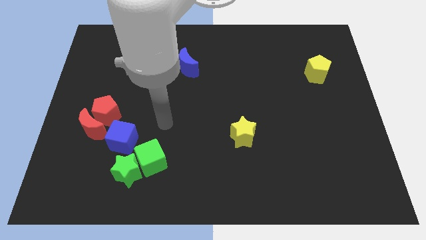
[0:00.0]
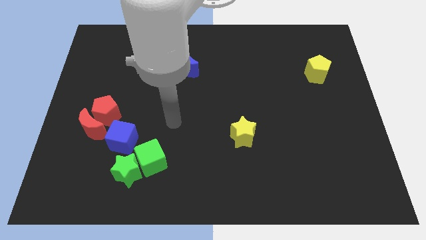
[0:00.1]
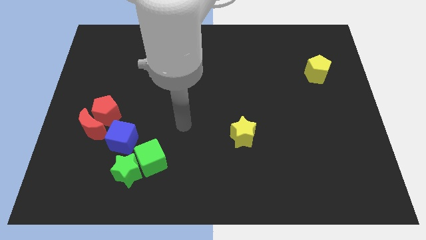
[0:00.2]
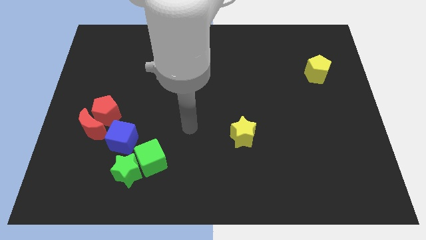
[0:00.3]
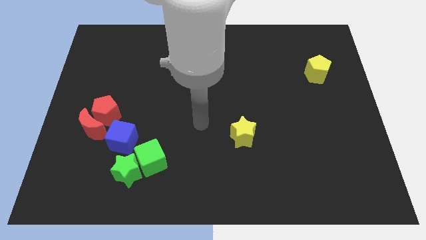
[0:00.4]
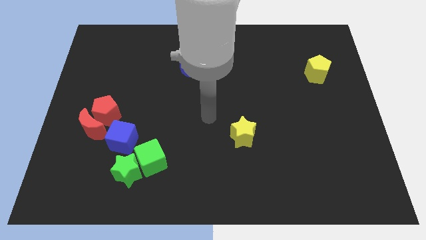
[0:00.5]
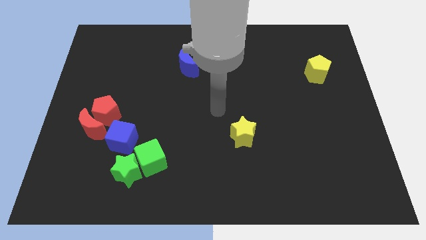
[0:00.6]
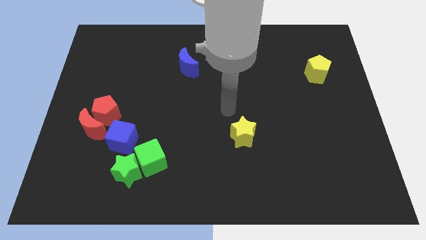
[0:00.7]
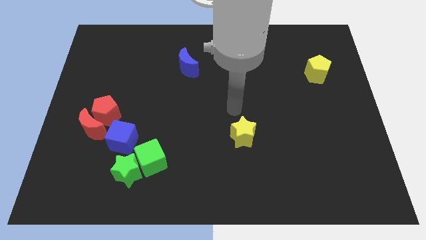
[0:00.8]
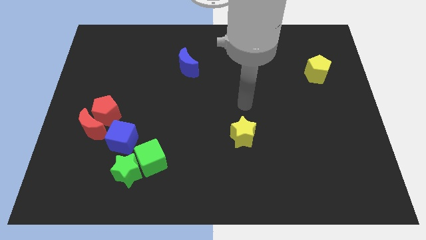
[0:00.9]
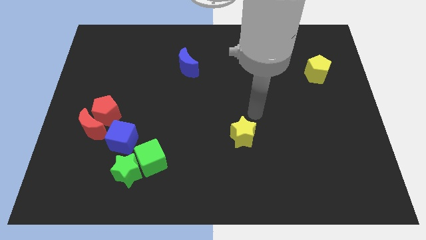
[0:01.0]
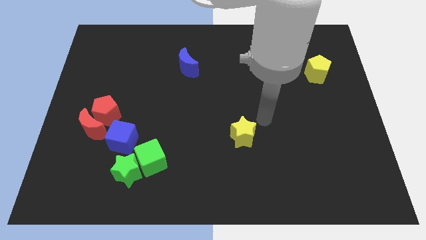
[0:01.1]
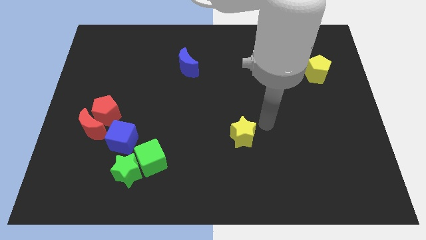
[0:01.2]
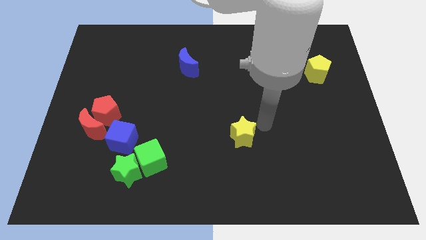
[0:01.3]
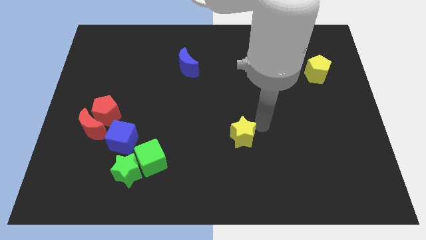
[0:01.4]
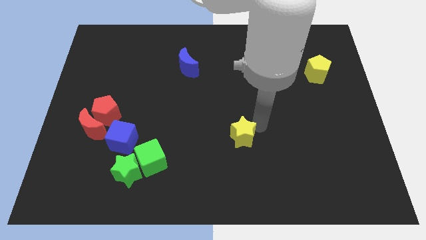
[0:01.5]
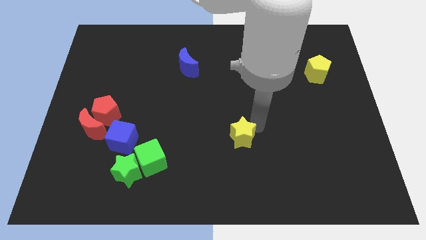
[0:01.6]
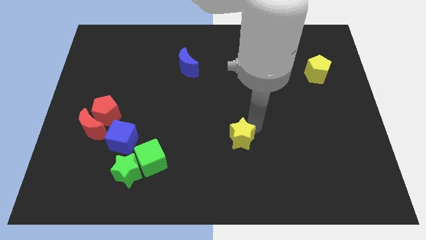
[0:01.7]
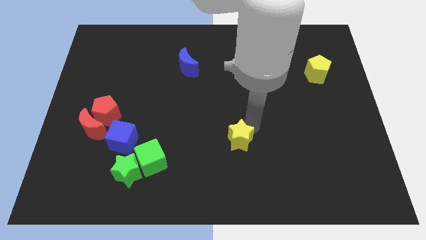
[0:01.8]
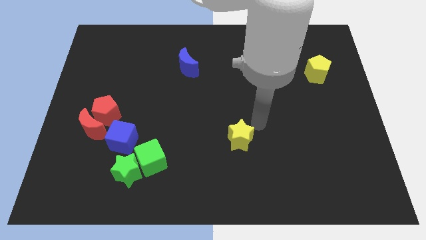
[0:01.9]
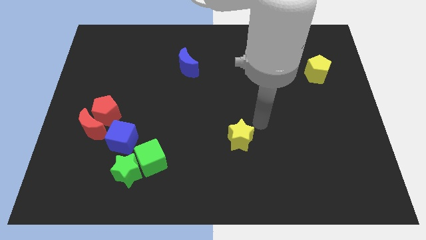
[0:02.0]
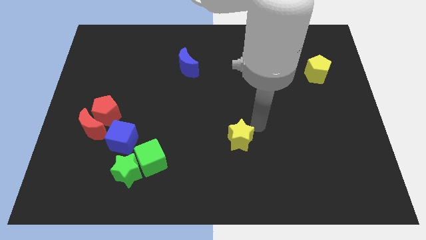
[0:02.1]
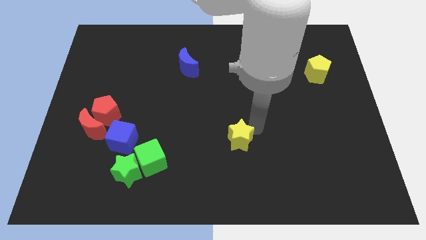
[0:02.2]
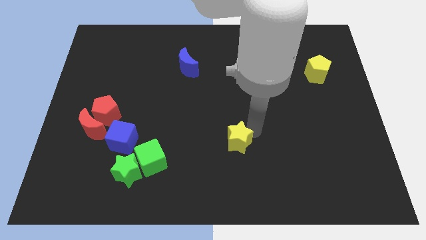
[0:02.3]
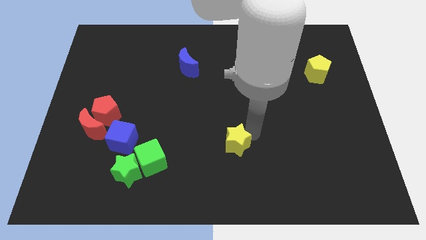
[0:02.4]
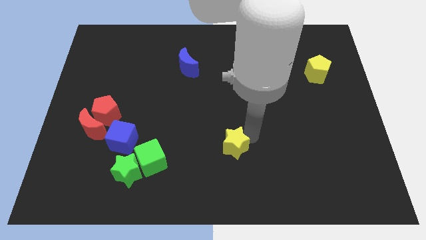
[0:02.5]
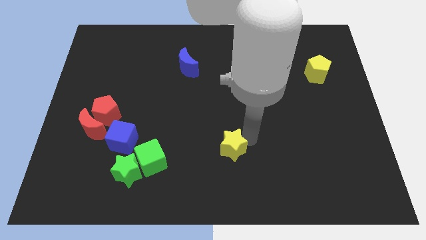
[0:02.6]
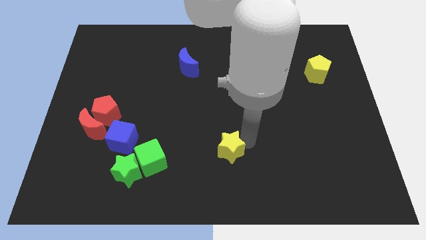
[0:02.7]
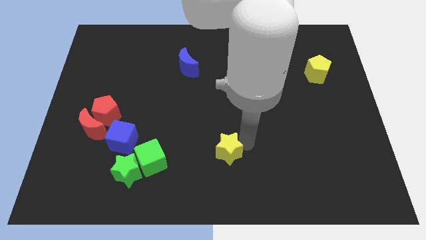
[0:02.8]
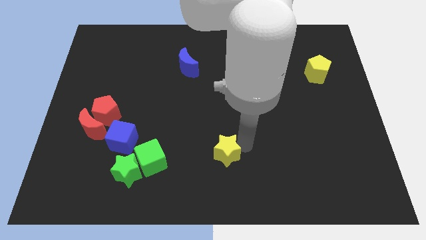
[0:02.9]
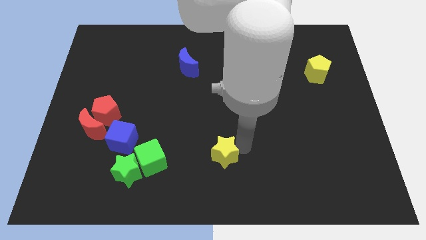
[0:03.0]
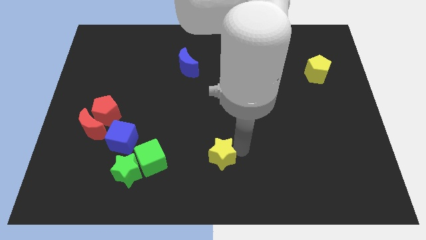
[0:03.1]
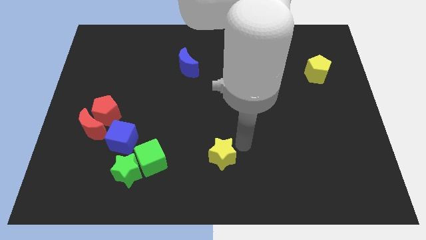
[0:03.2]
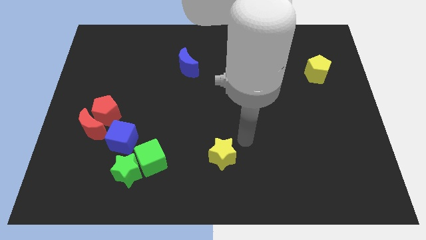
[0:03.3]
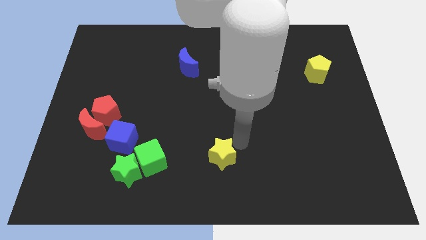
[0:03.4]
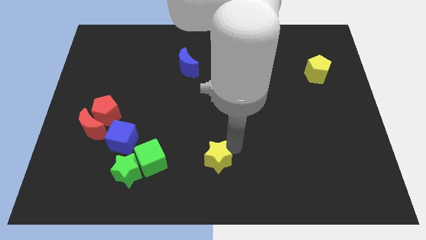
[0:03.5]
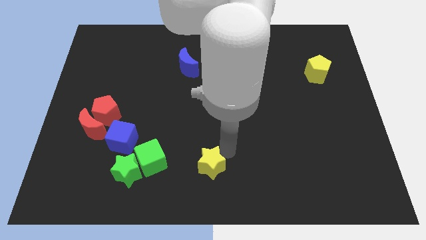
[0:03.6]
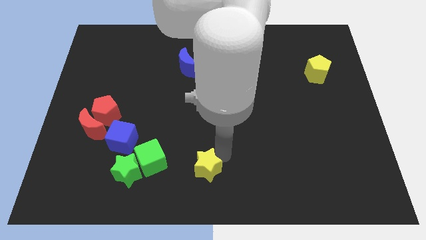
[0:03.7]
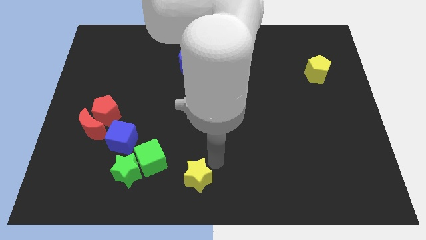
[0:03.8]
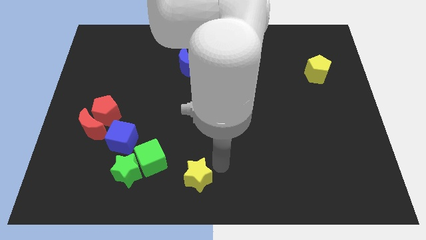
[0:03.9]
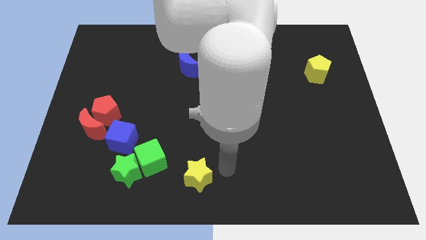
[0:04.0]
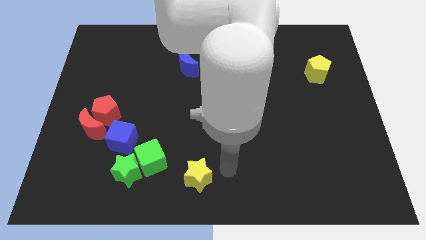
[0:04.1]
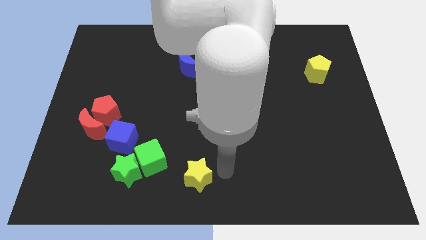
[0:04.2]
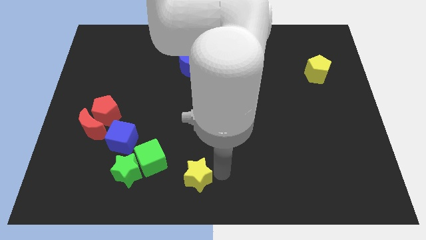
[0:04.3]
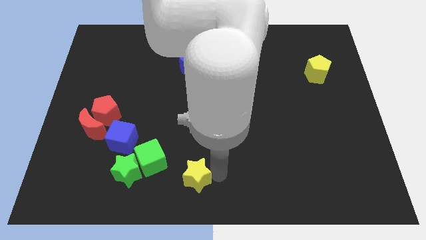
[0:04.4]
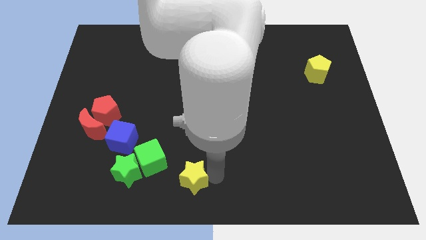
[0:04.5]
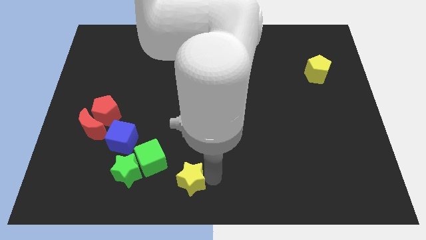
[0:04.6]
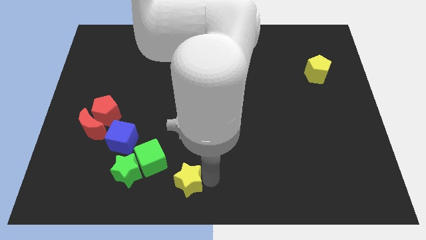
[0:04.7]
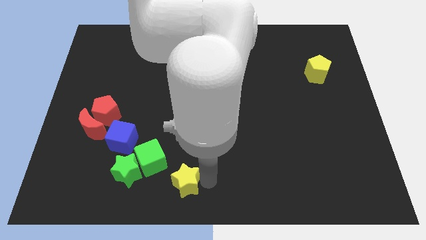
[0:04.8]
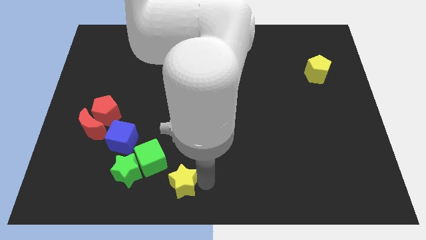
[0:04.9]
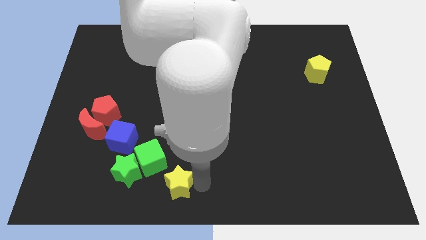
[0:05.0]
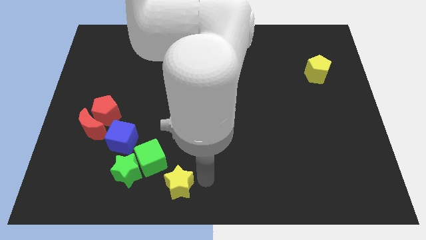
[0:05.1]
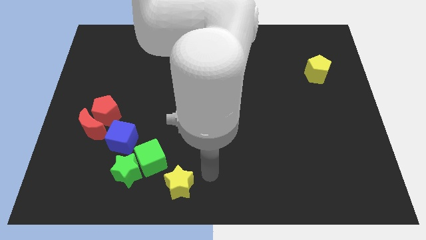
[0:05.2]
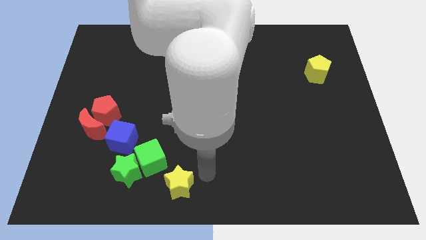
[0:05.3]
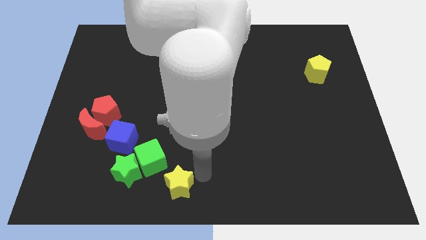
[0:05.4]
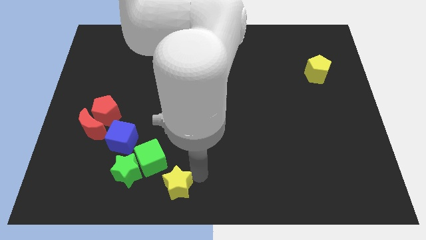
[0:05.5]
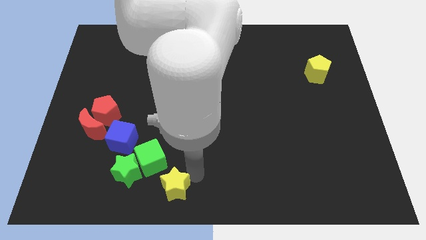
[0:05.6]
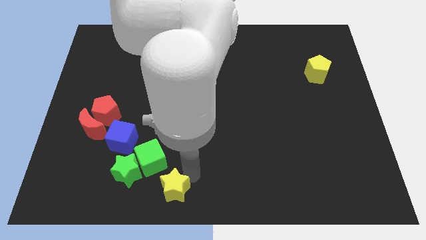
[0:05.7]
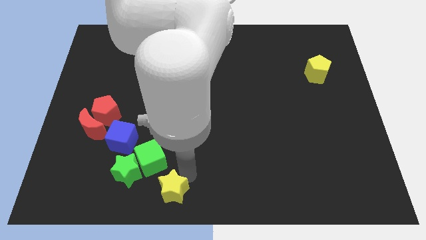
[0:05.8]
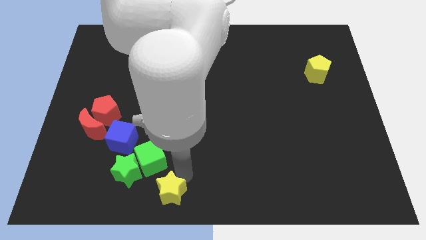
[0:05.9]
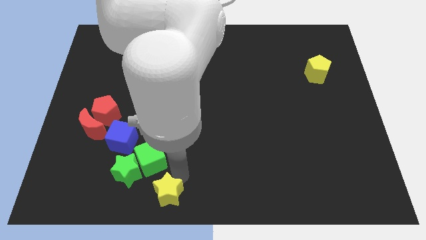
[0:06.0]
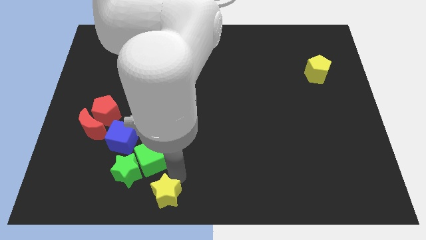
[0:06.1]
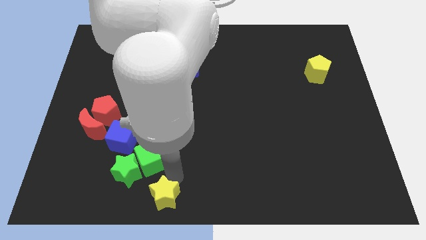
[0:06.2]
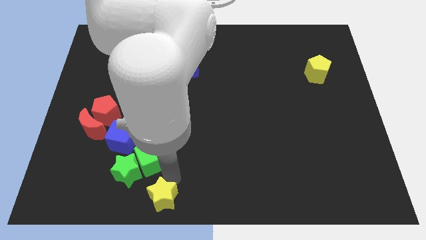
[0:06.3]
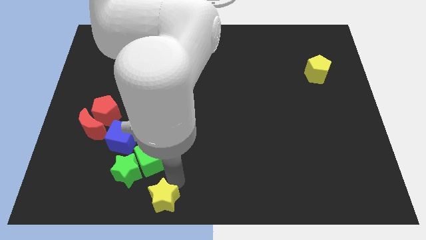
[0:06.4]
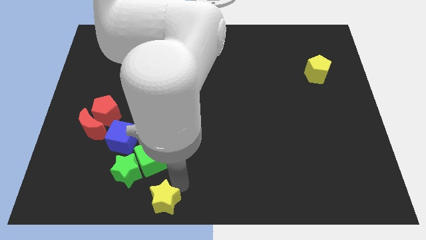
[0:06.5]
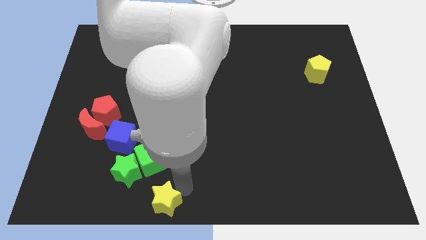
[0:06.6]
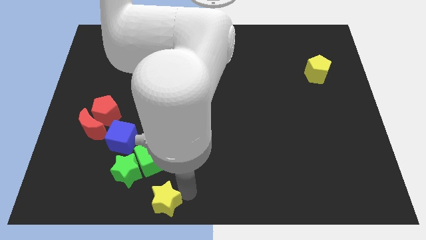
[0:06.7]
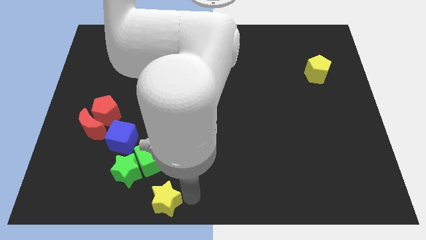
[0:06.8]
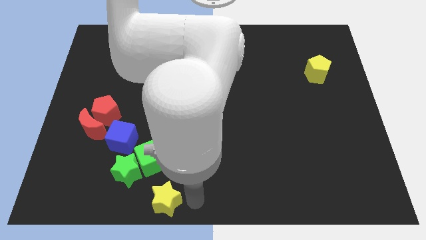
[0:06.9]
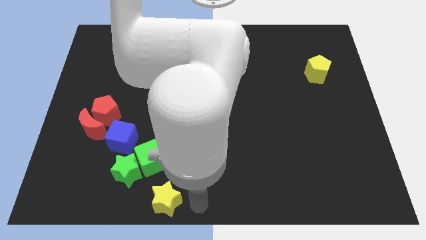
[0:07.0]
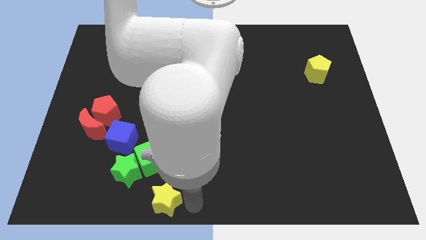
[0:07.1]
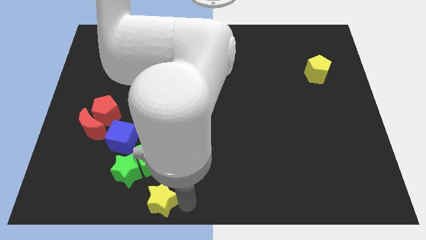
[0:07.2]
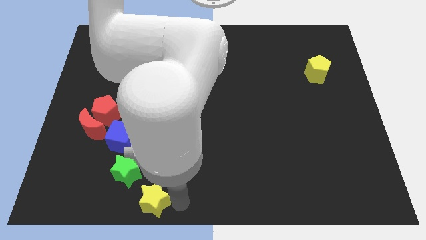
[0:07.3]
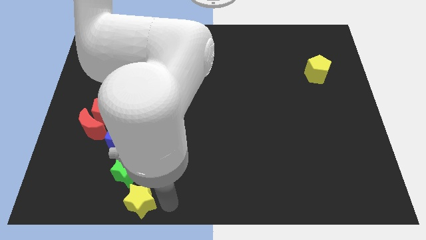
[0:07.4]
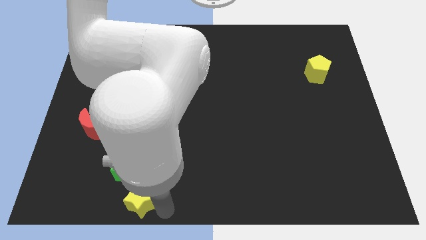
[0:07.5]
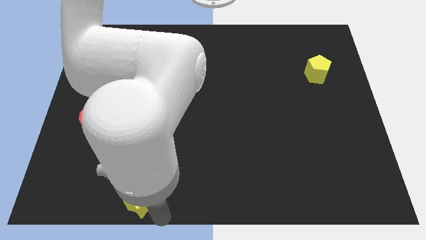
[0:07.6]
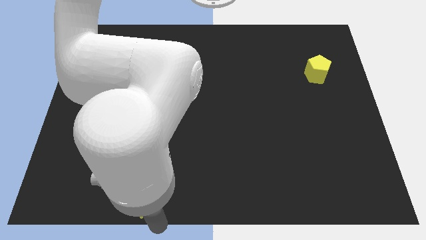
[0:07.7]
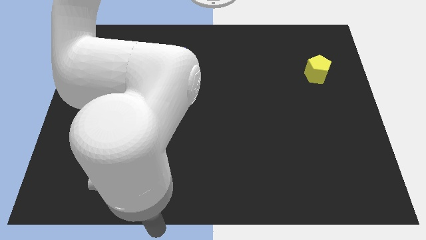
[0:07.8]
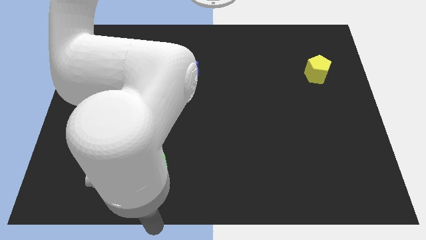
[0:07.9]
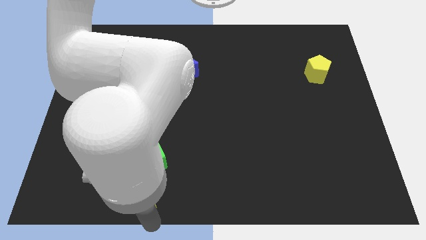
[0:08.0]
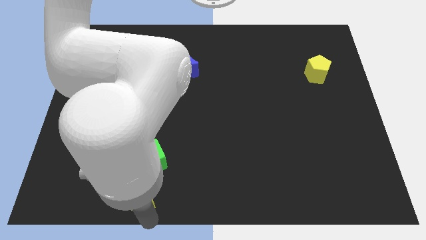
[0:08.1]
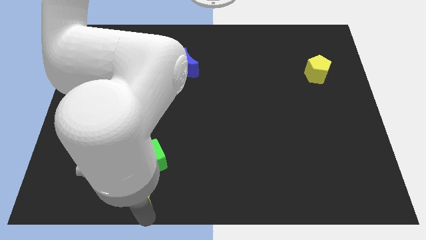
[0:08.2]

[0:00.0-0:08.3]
put the yellow star close to the green star
